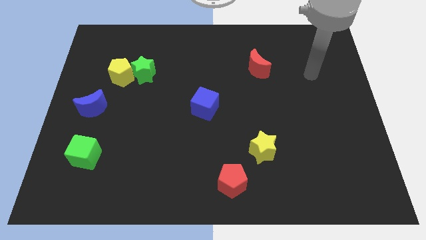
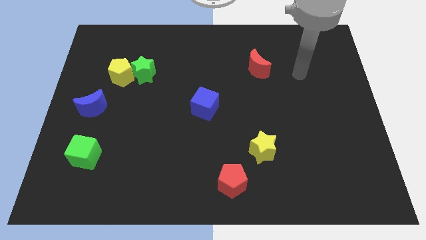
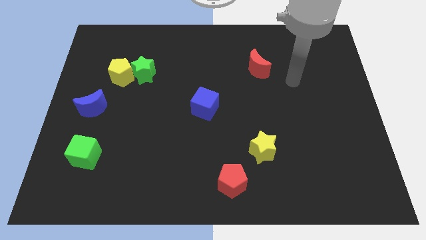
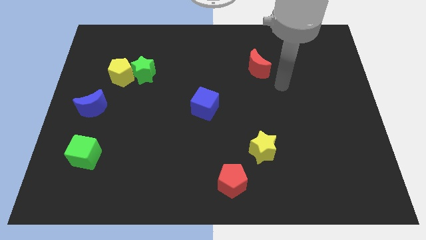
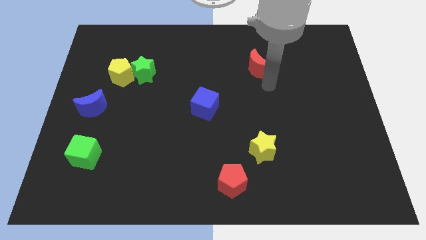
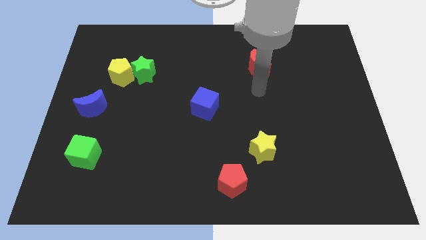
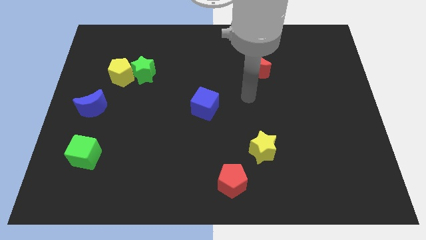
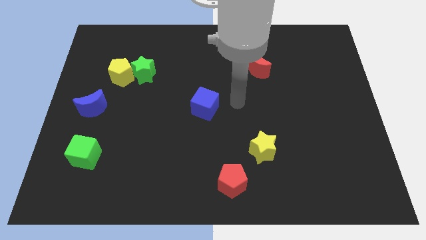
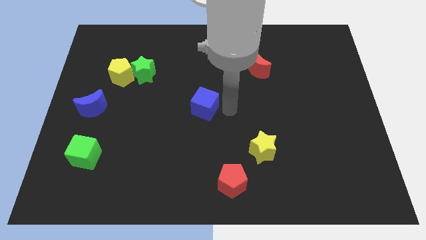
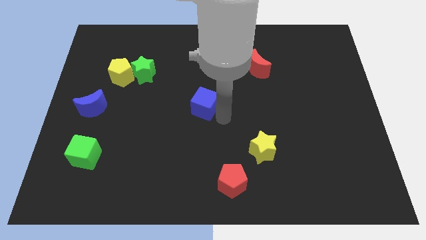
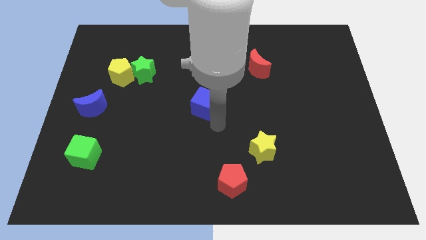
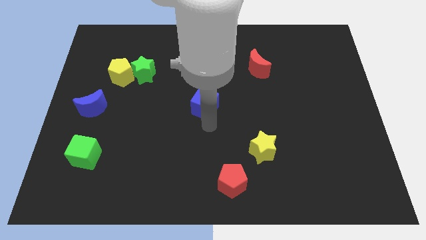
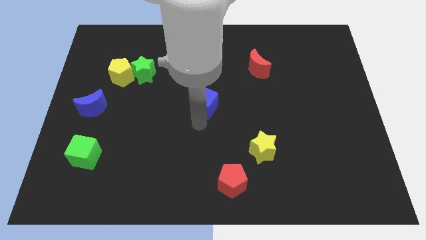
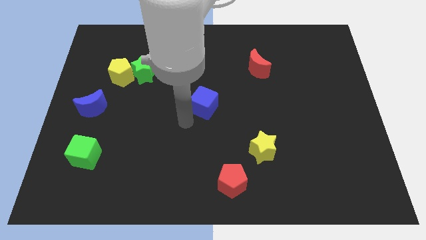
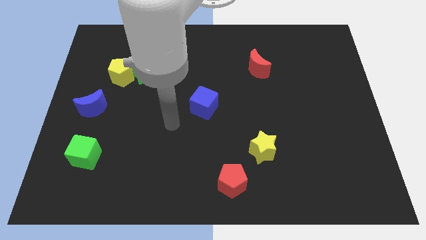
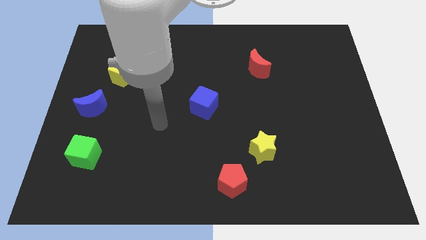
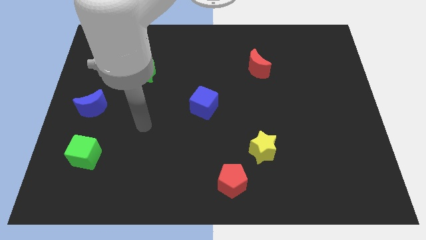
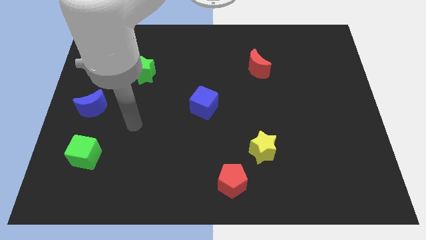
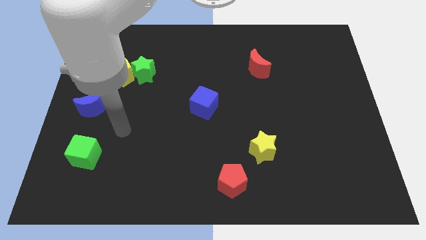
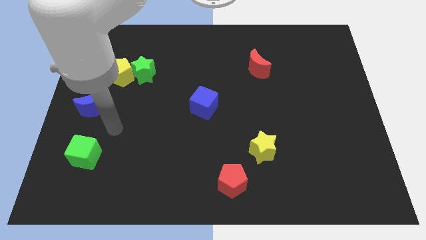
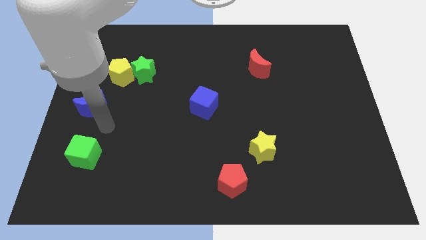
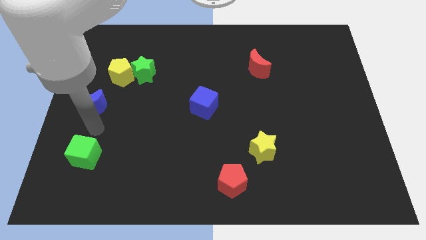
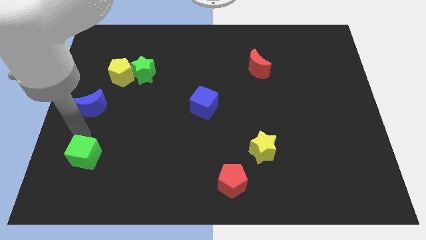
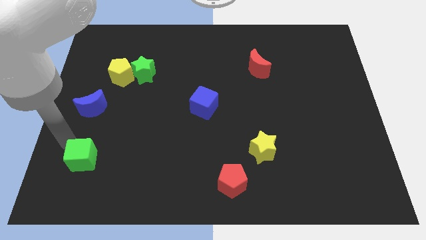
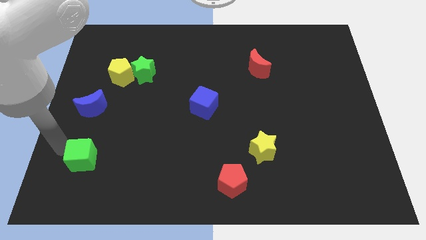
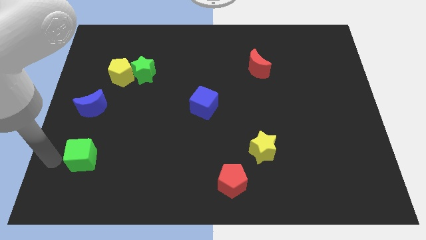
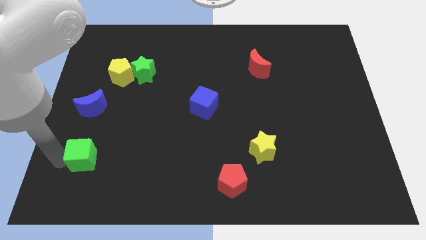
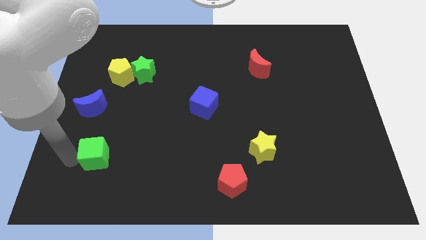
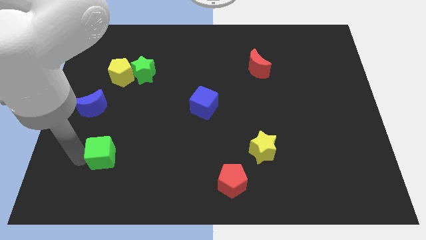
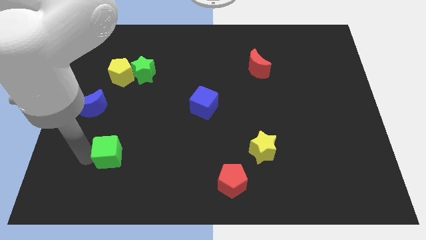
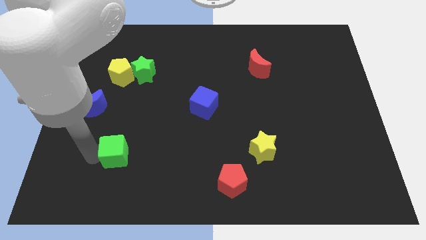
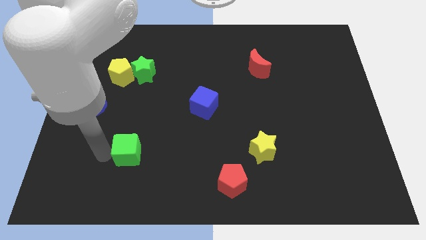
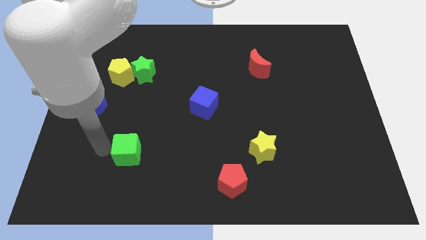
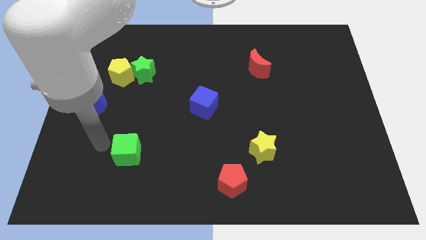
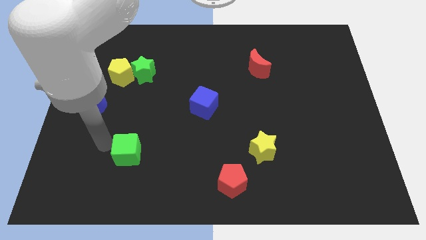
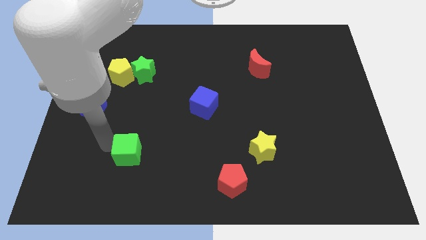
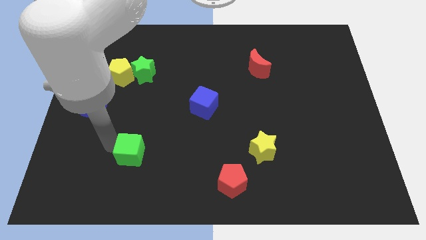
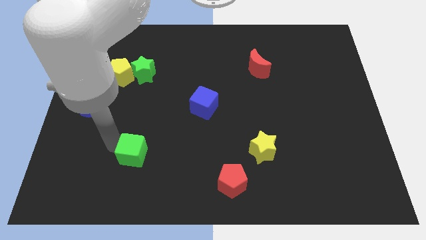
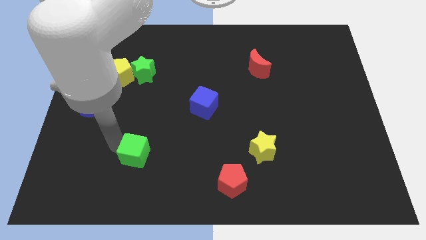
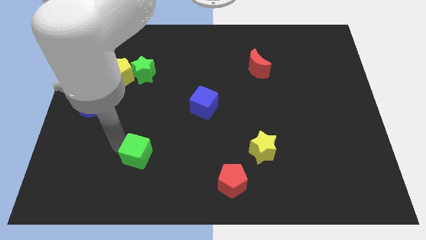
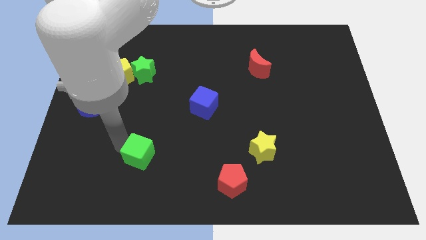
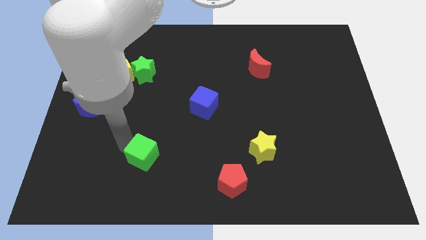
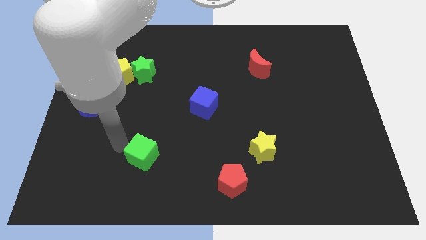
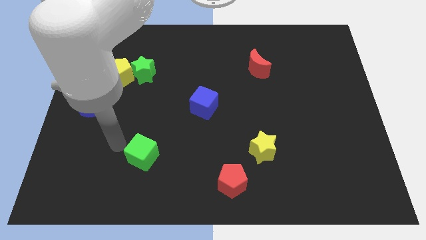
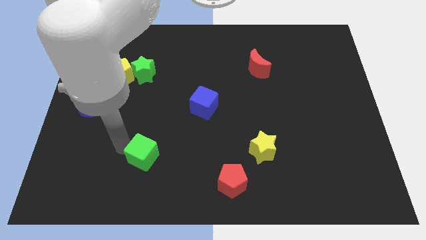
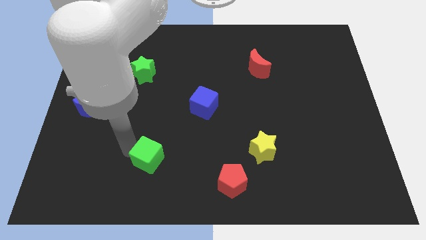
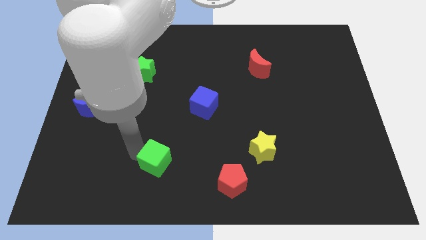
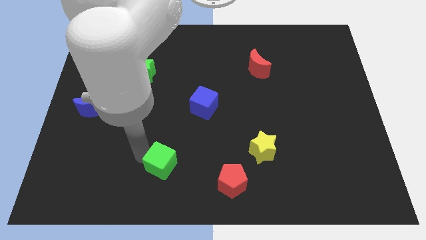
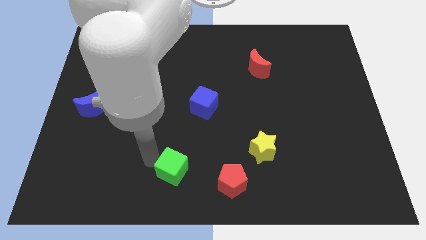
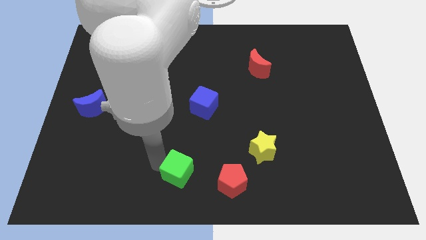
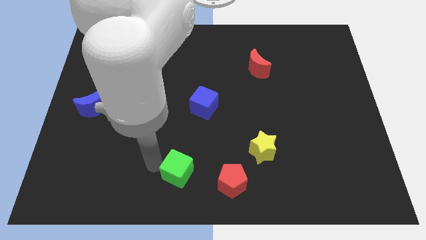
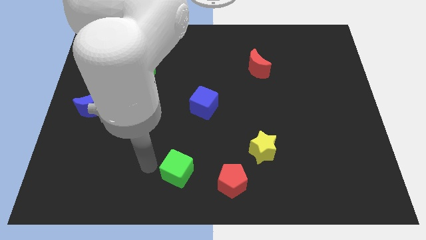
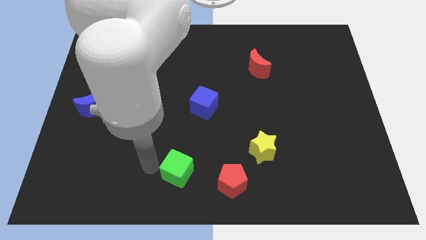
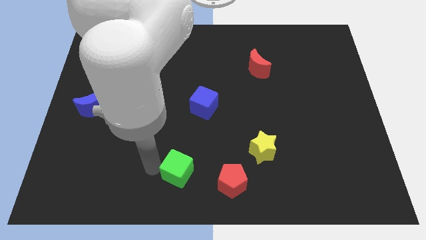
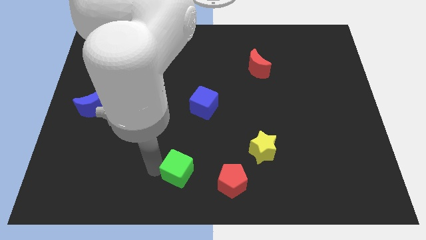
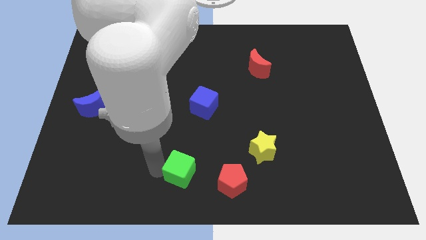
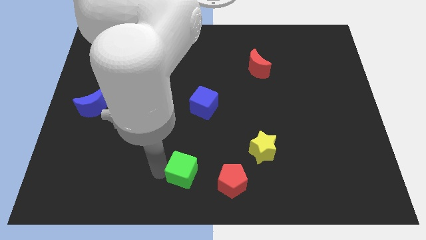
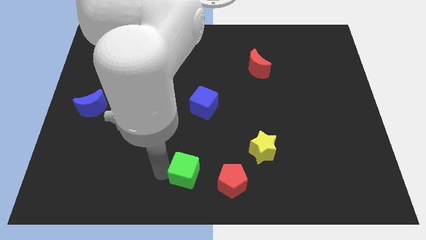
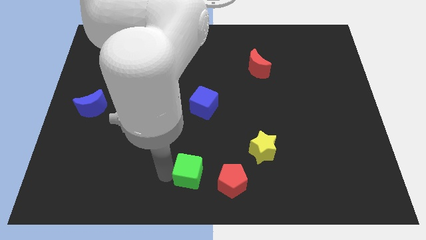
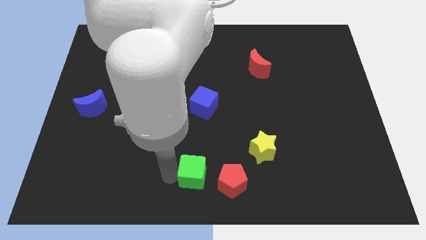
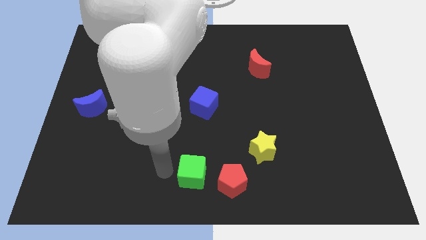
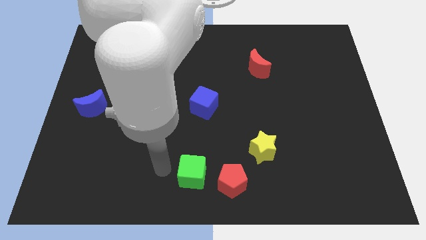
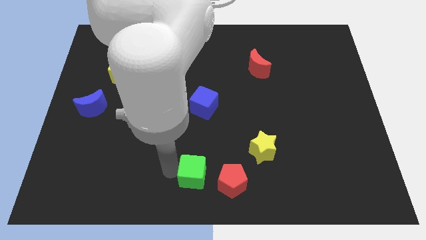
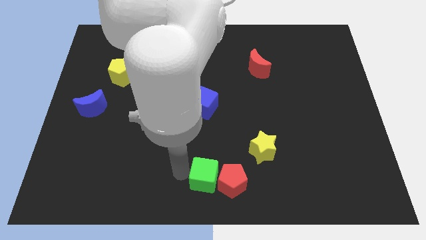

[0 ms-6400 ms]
push the green cube to the red pentagon

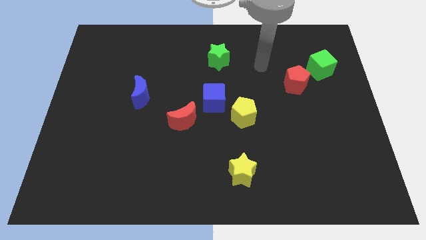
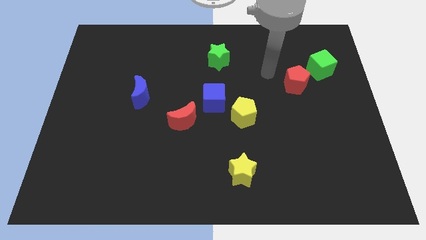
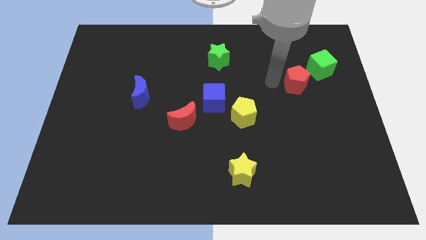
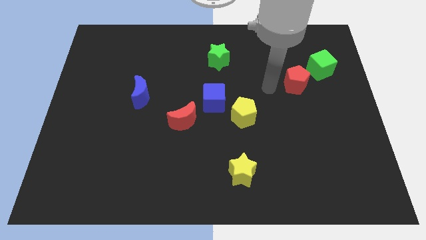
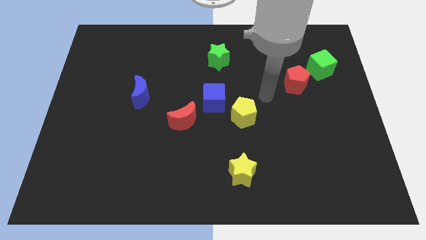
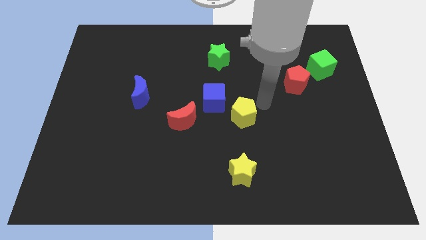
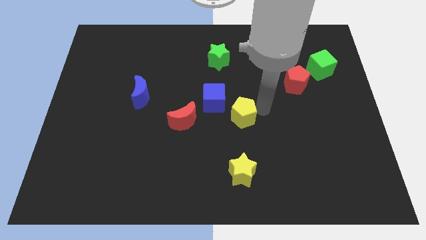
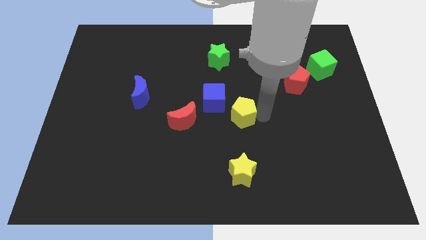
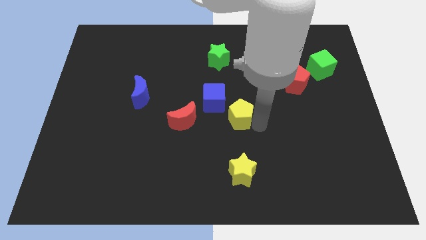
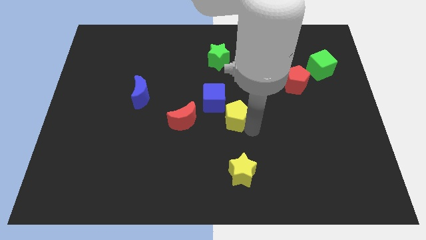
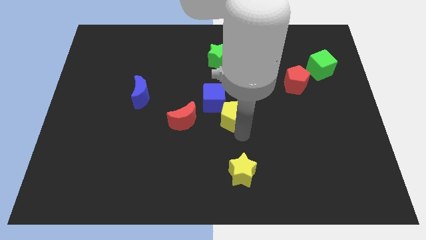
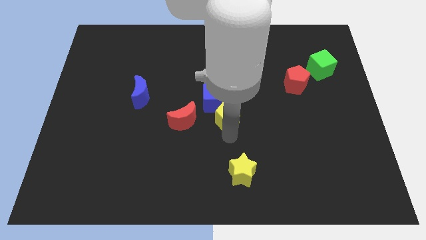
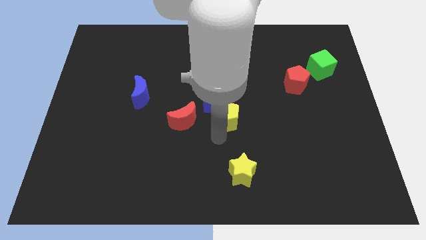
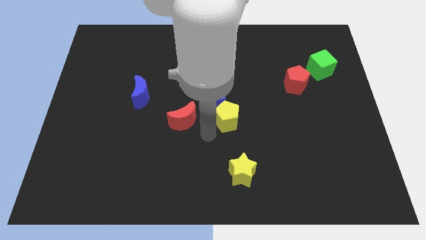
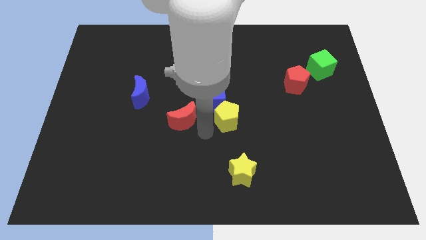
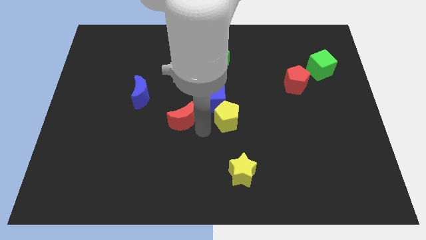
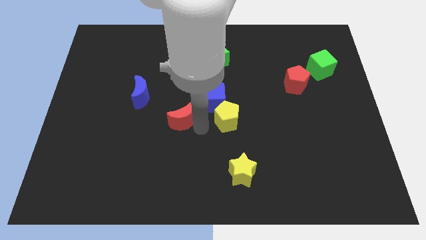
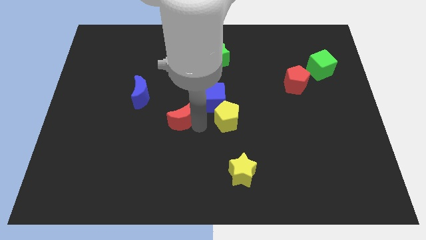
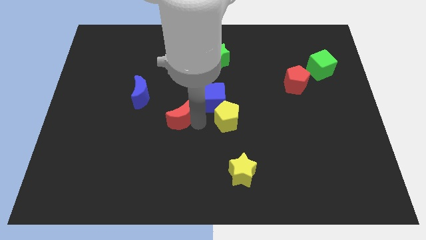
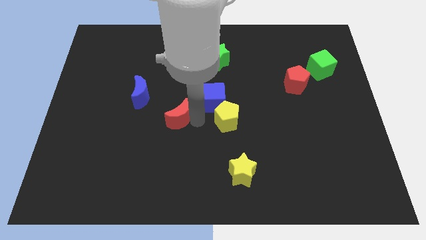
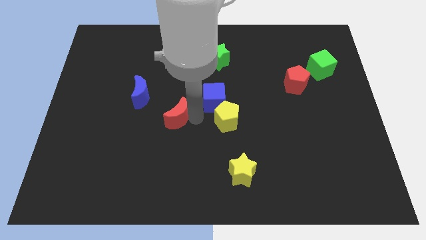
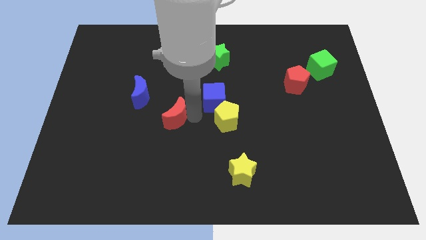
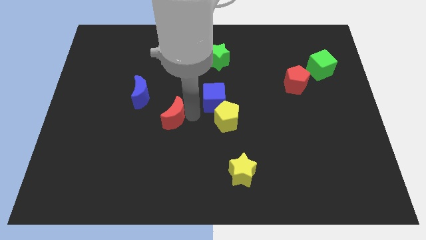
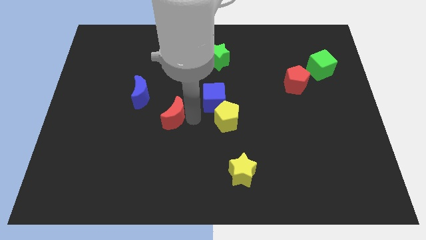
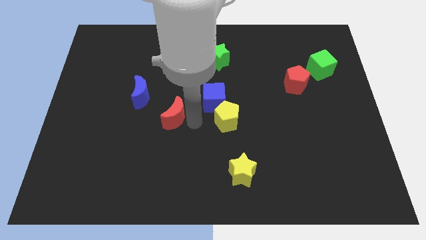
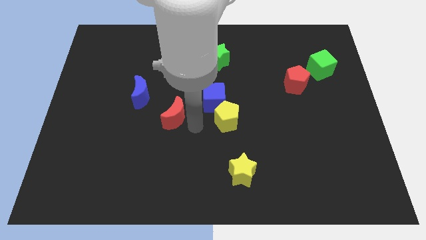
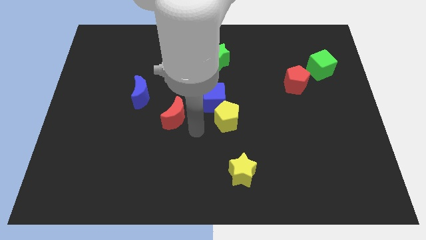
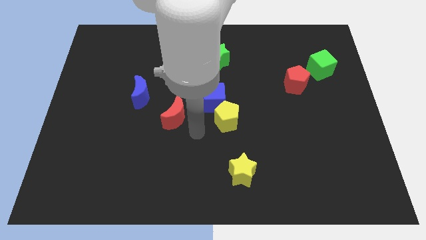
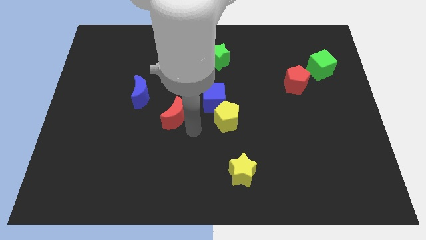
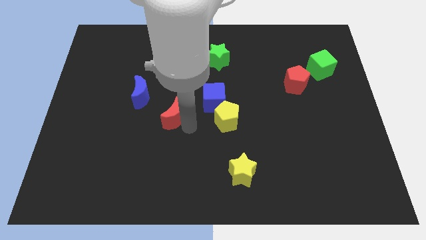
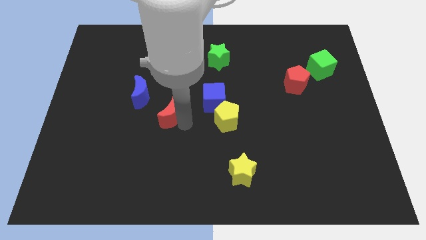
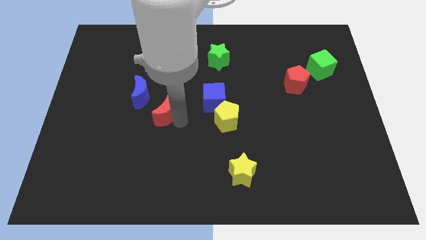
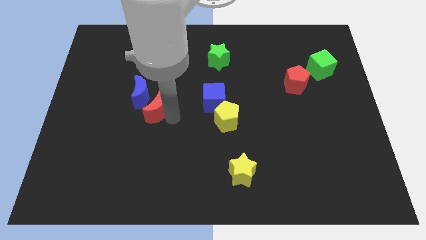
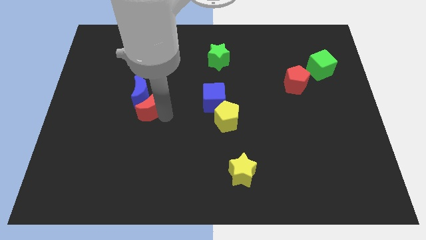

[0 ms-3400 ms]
slide the red moon towards the blue moon
